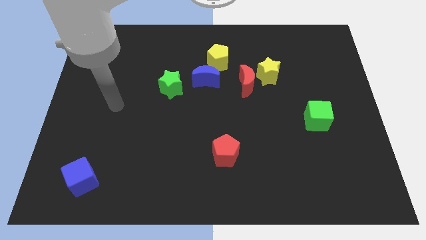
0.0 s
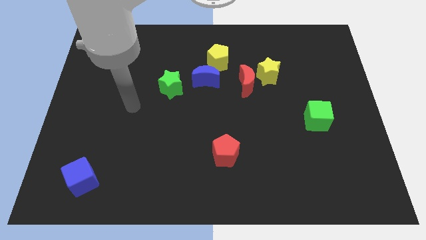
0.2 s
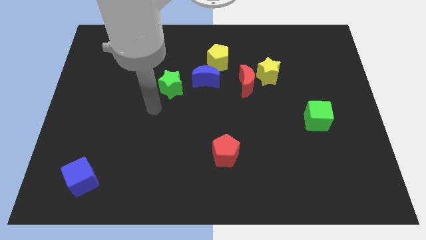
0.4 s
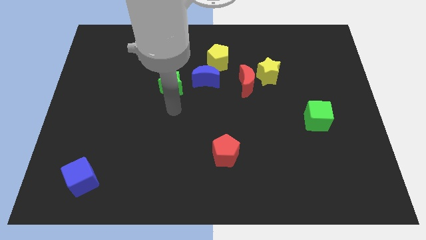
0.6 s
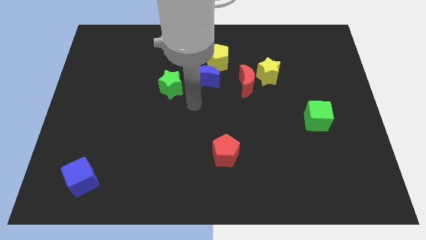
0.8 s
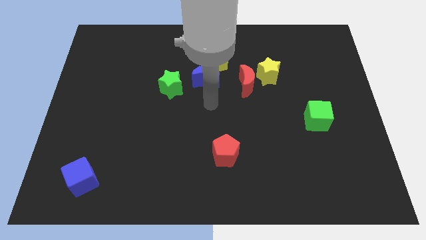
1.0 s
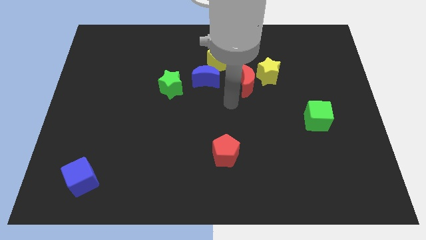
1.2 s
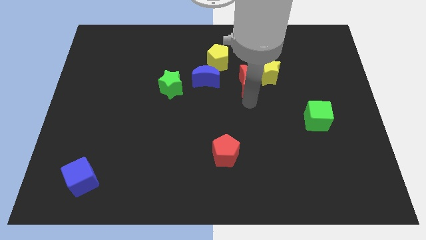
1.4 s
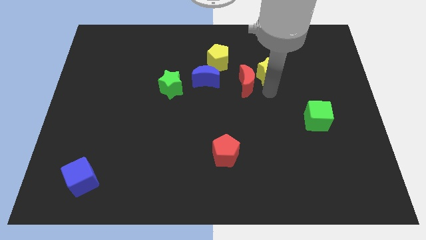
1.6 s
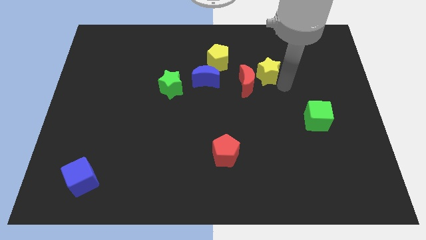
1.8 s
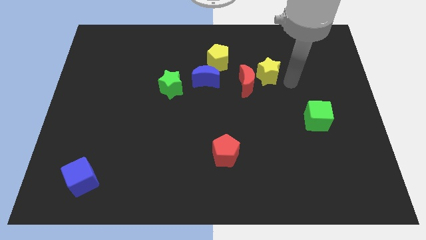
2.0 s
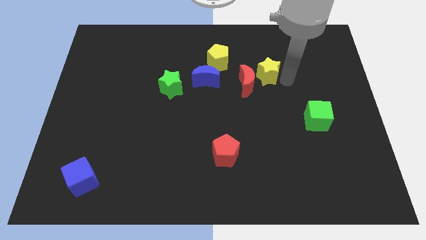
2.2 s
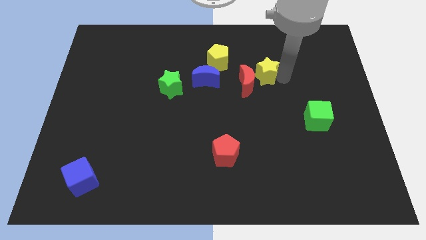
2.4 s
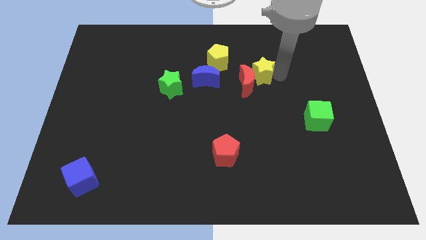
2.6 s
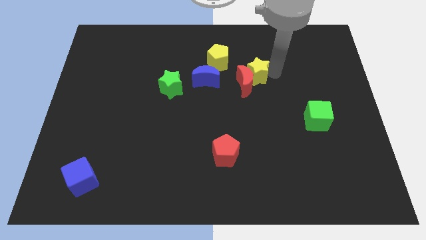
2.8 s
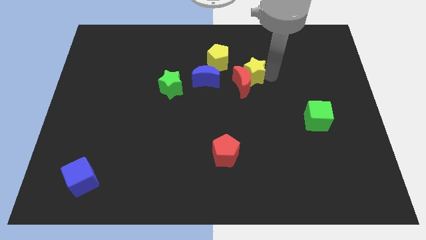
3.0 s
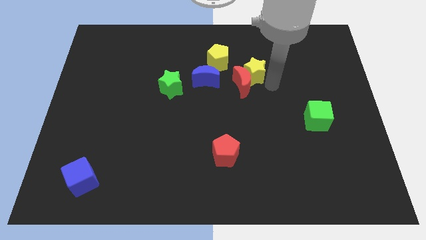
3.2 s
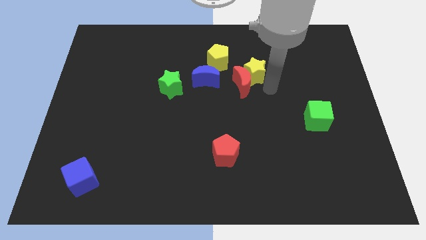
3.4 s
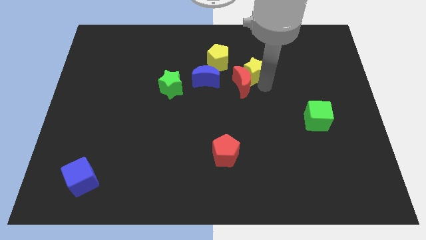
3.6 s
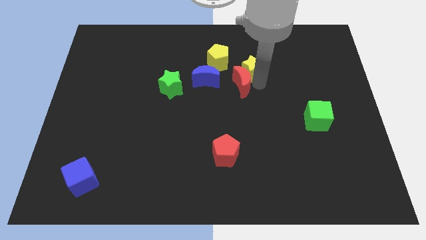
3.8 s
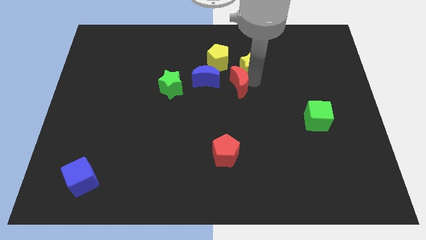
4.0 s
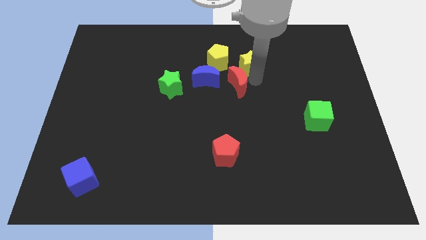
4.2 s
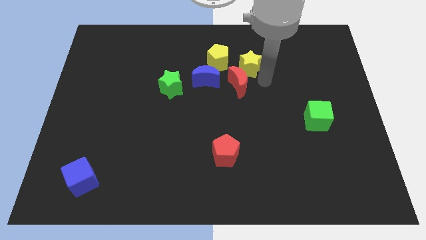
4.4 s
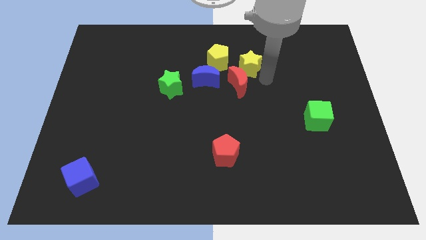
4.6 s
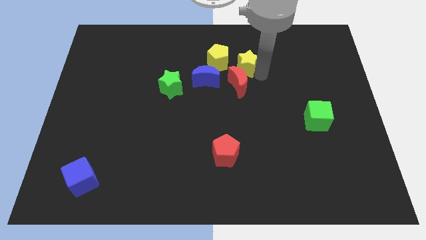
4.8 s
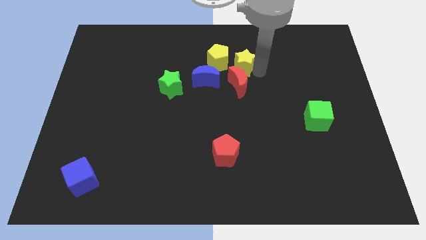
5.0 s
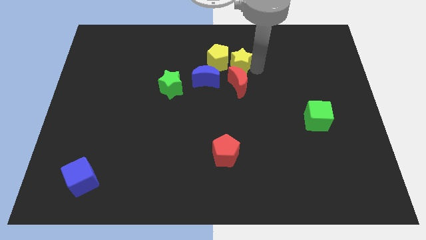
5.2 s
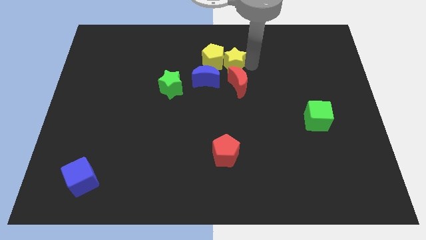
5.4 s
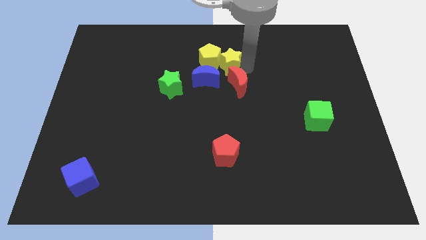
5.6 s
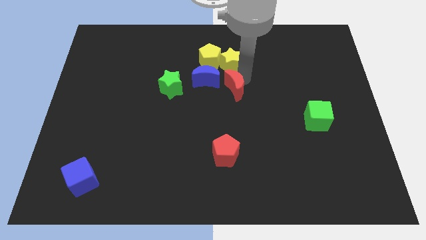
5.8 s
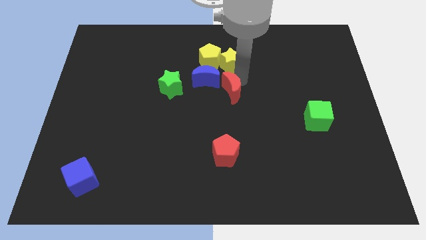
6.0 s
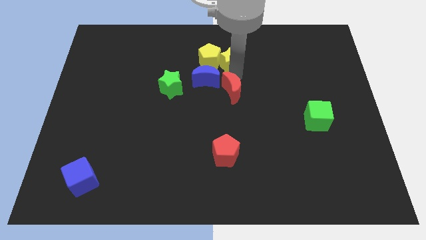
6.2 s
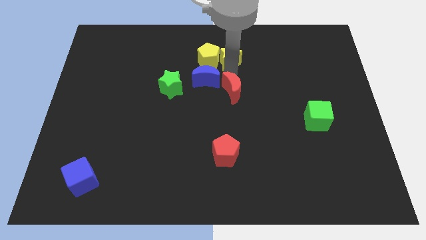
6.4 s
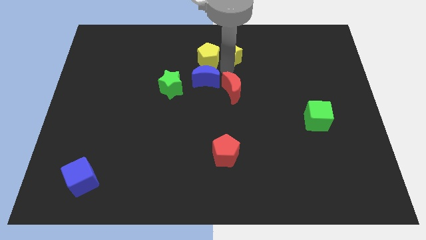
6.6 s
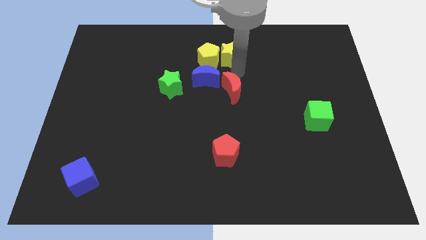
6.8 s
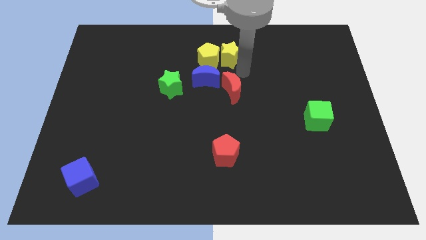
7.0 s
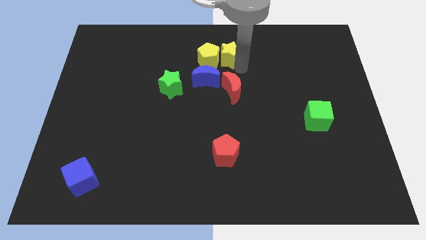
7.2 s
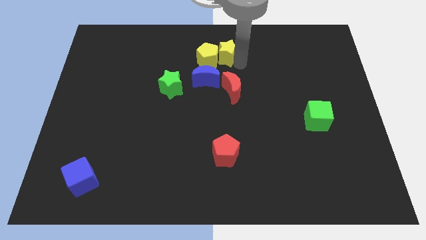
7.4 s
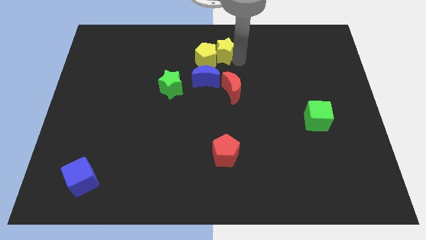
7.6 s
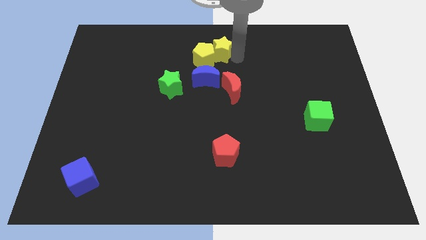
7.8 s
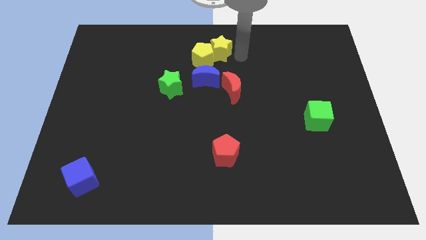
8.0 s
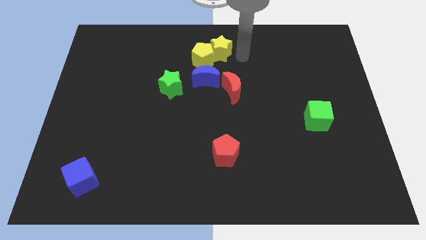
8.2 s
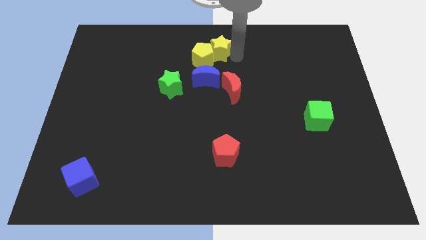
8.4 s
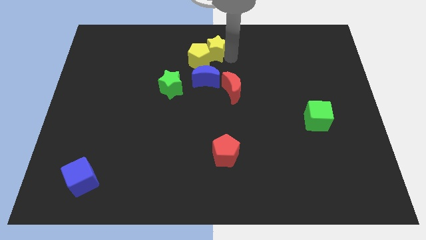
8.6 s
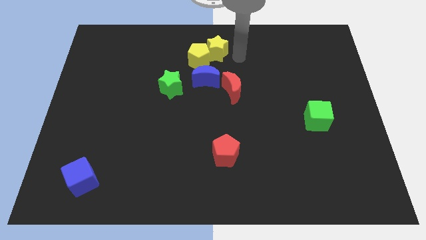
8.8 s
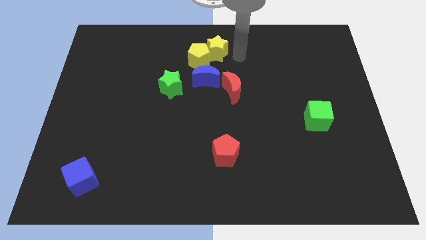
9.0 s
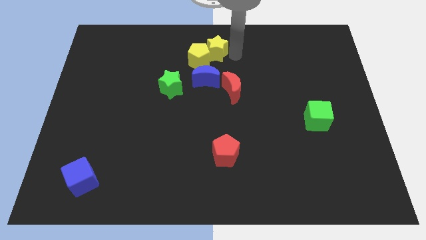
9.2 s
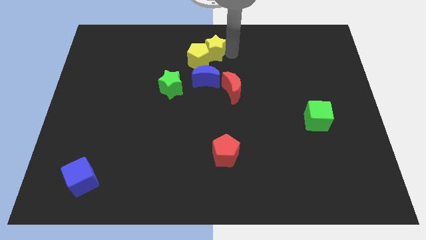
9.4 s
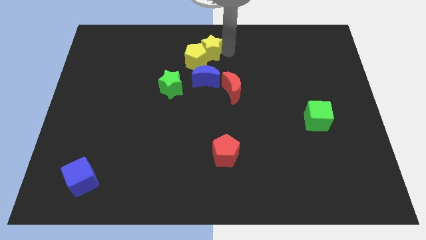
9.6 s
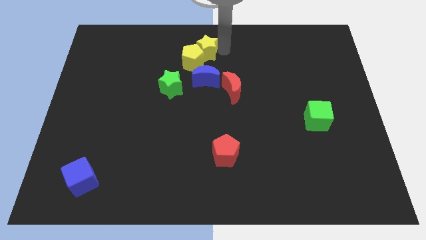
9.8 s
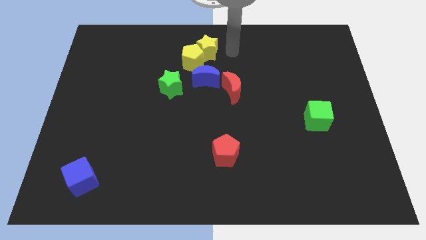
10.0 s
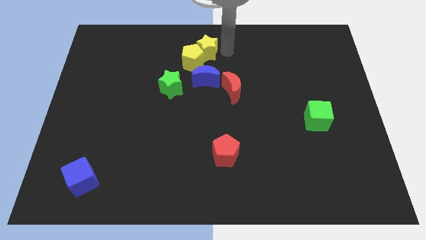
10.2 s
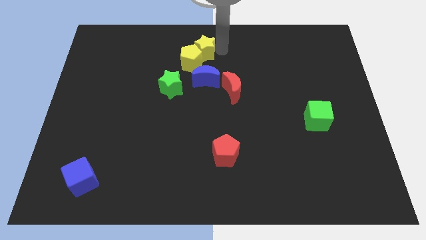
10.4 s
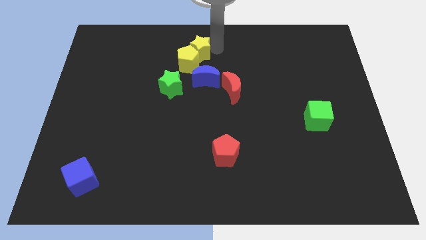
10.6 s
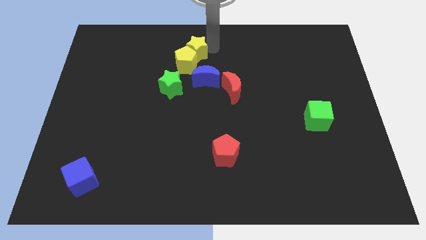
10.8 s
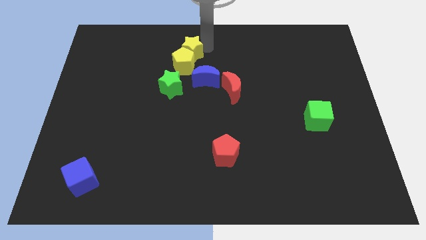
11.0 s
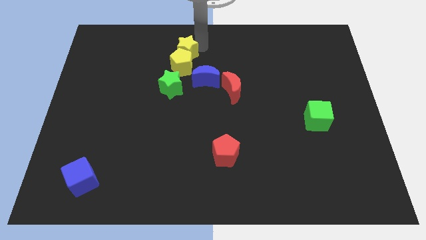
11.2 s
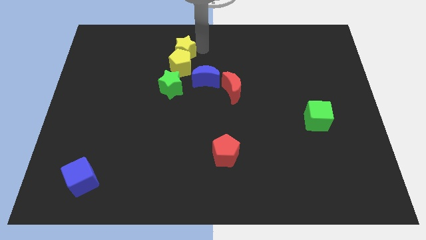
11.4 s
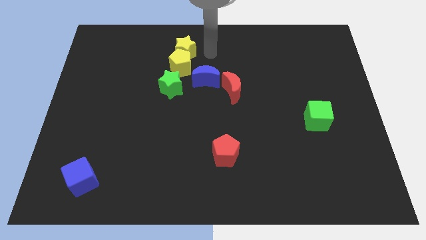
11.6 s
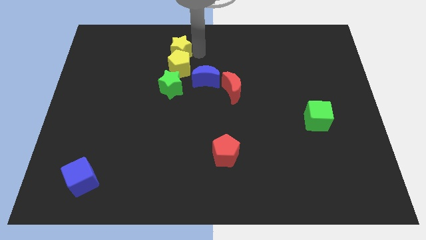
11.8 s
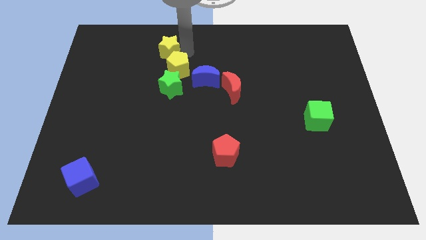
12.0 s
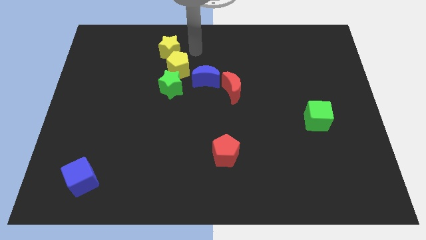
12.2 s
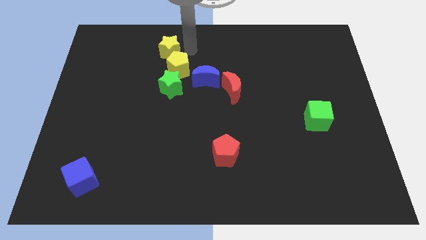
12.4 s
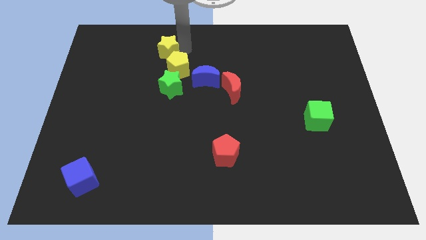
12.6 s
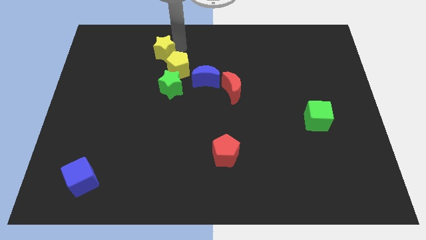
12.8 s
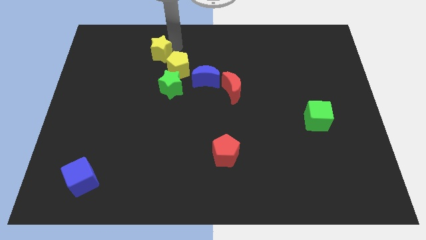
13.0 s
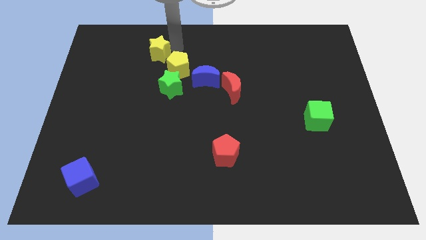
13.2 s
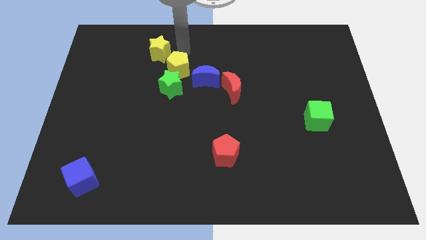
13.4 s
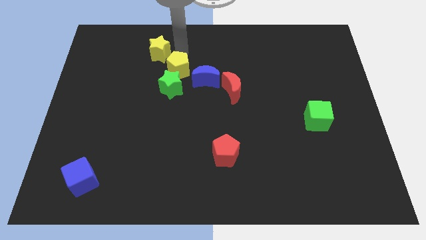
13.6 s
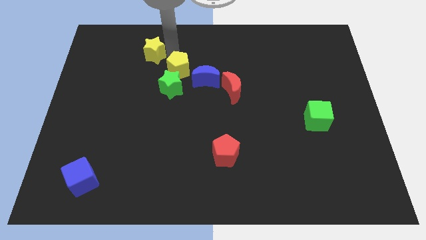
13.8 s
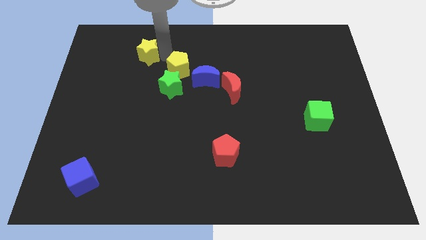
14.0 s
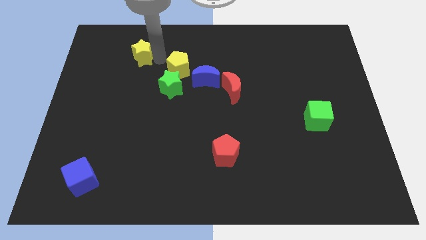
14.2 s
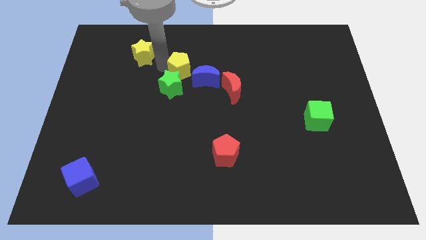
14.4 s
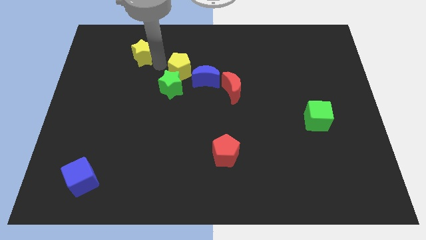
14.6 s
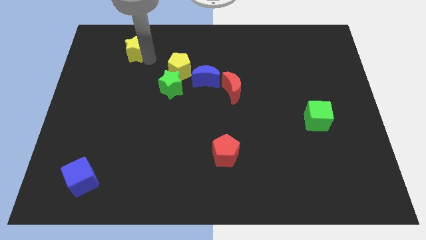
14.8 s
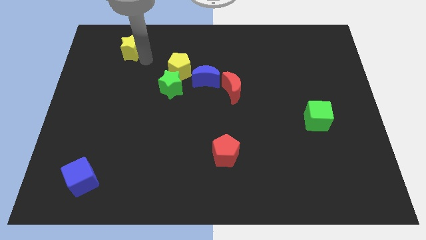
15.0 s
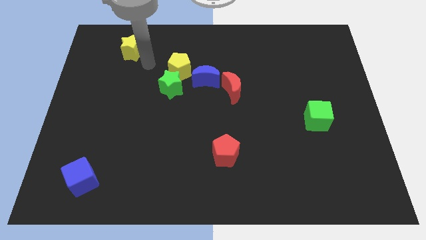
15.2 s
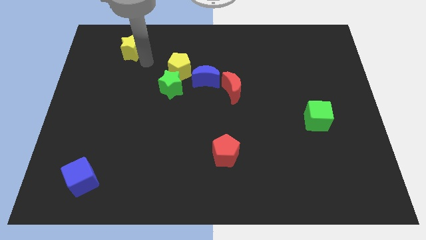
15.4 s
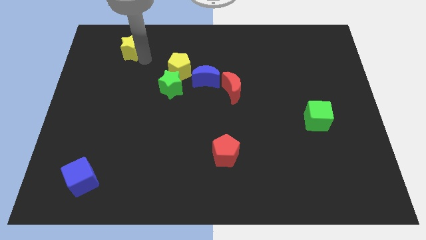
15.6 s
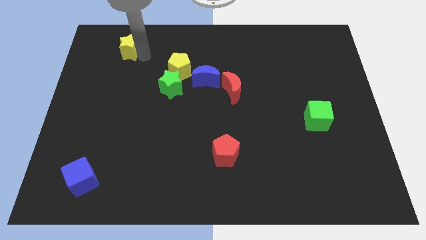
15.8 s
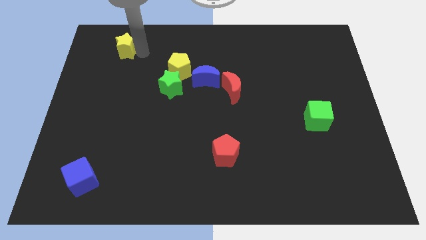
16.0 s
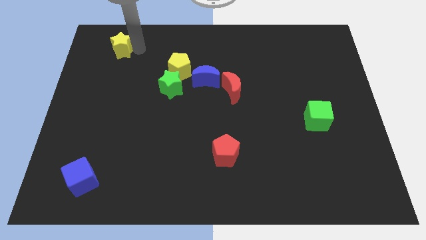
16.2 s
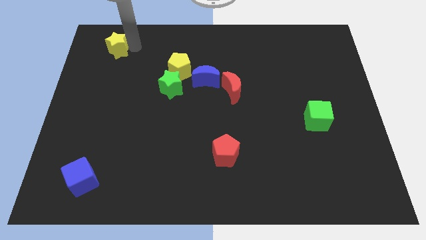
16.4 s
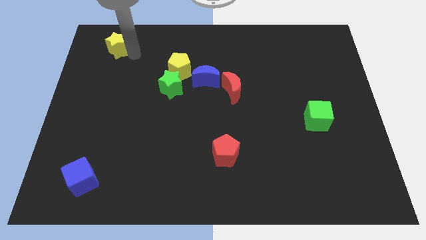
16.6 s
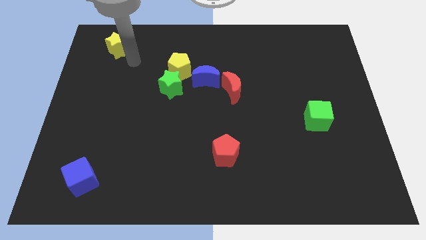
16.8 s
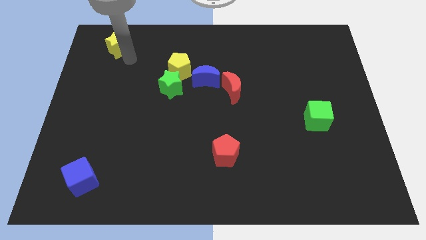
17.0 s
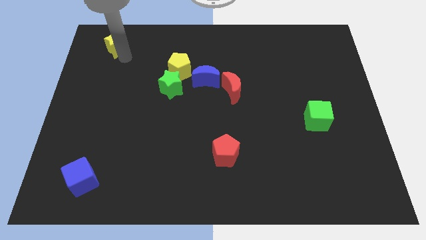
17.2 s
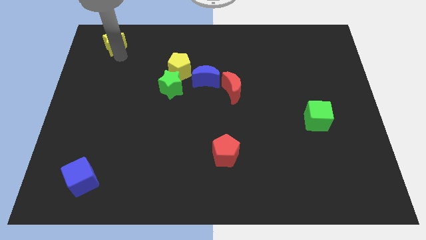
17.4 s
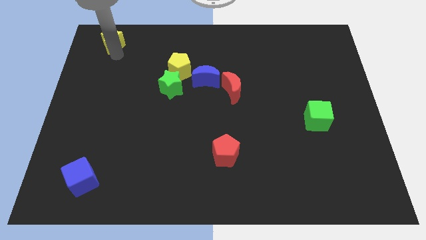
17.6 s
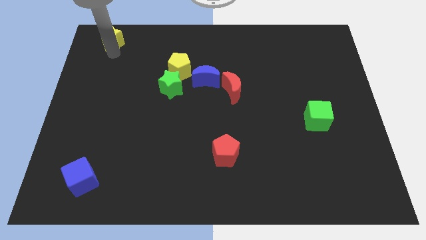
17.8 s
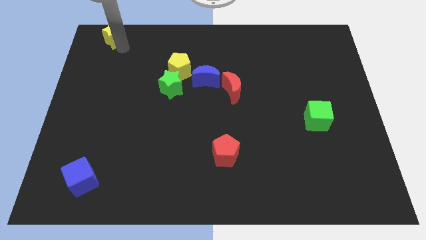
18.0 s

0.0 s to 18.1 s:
put the yellow star to the top left
